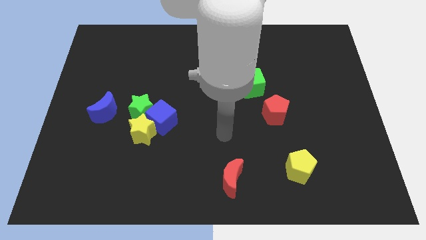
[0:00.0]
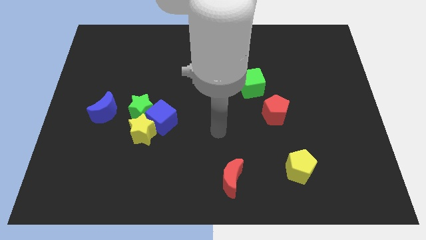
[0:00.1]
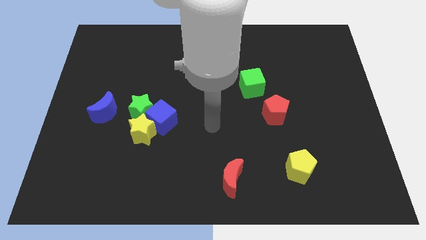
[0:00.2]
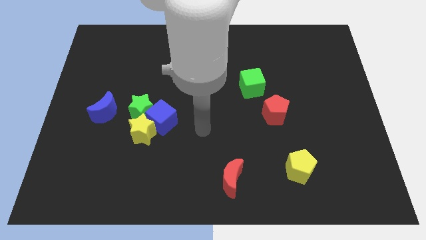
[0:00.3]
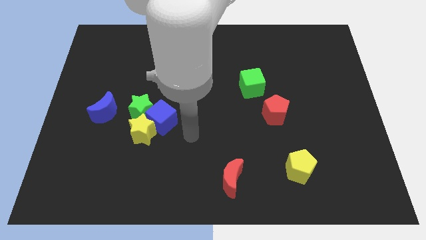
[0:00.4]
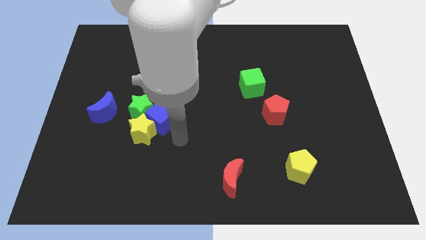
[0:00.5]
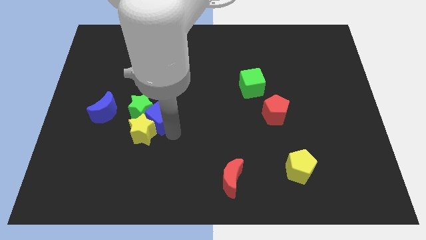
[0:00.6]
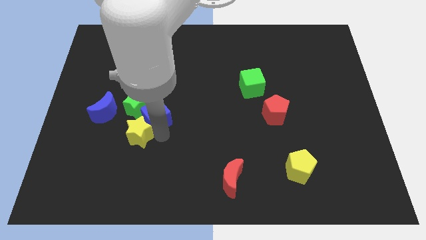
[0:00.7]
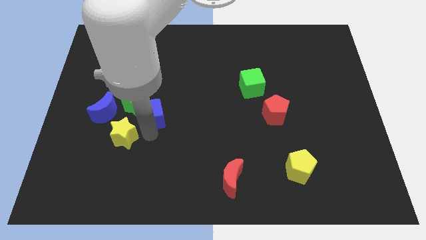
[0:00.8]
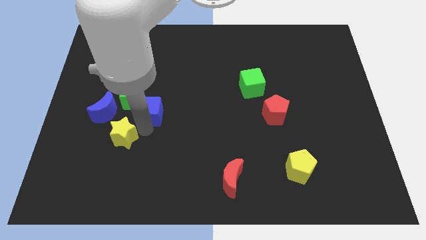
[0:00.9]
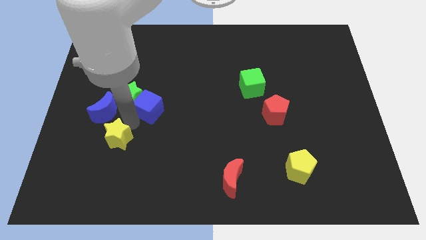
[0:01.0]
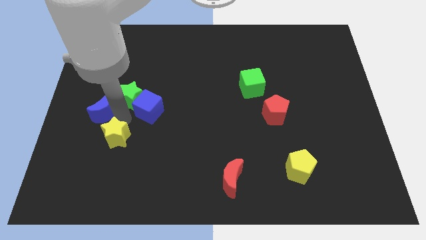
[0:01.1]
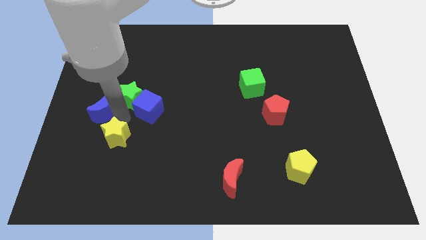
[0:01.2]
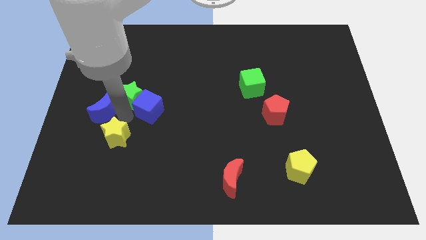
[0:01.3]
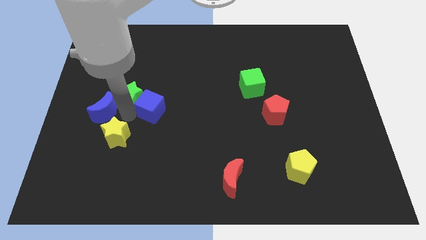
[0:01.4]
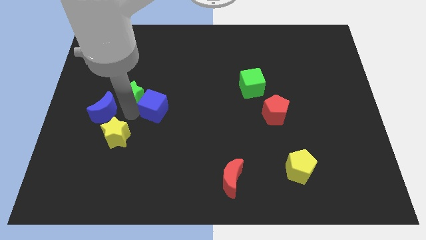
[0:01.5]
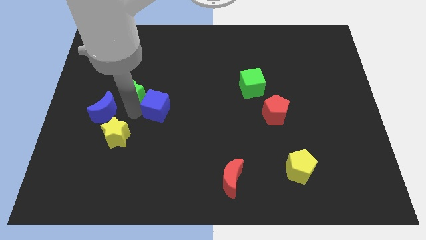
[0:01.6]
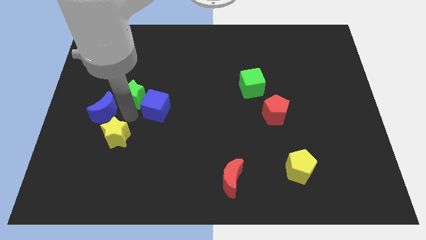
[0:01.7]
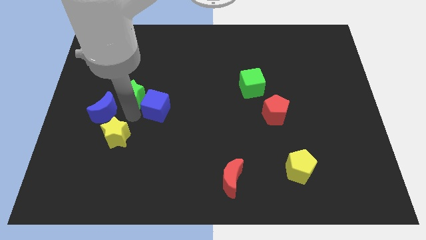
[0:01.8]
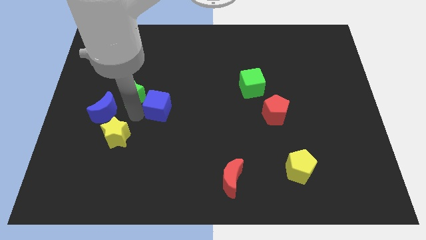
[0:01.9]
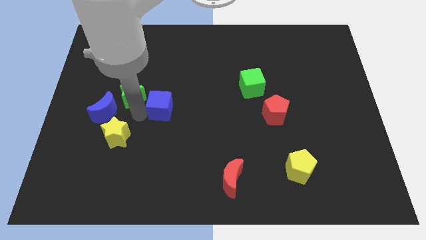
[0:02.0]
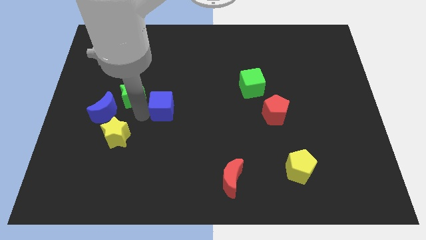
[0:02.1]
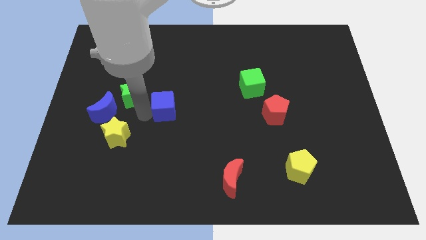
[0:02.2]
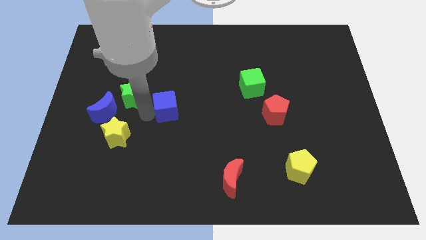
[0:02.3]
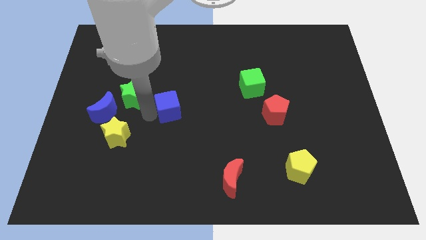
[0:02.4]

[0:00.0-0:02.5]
pull the blue cube apart from the yellow star and green star

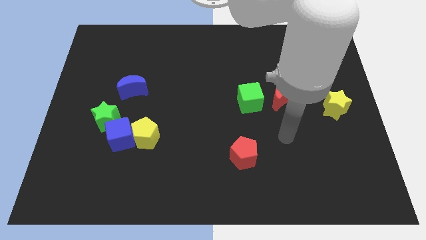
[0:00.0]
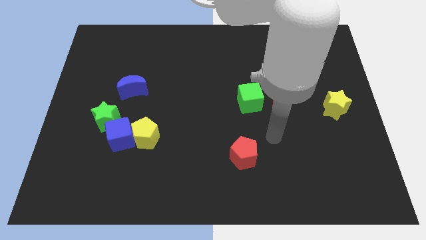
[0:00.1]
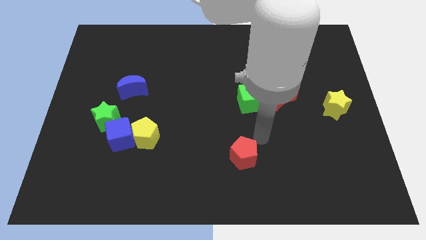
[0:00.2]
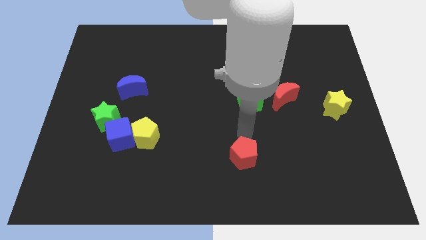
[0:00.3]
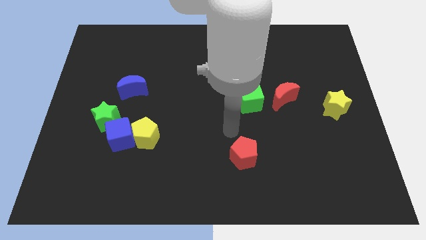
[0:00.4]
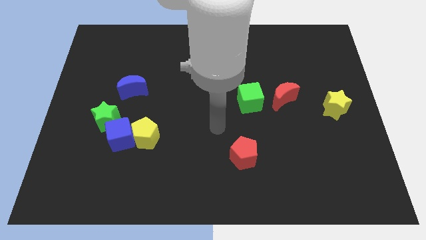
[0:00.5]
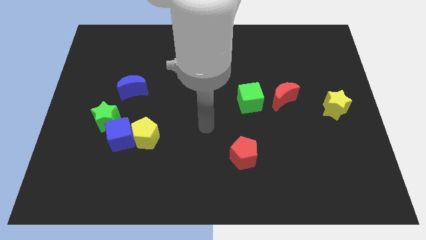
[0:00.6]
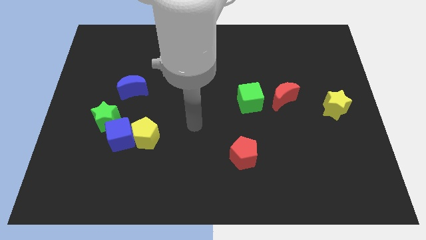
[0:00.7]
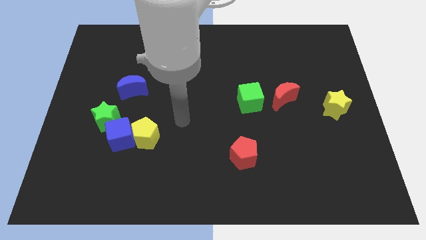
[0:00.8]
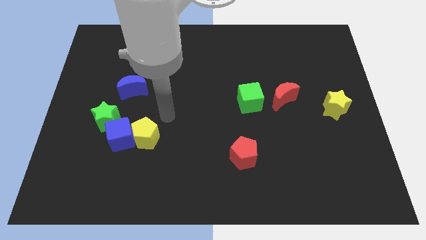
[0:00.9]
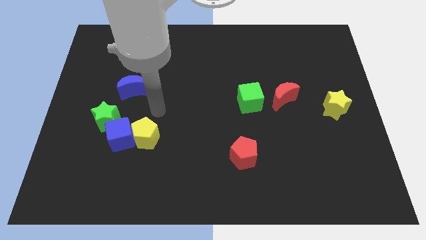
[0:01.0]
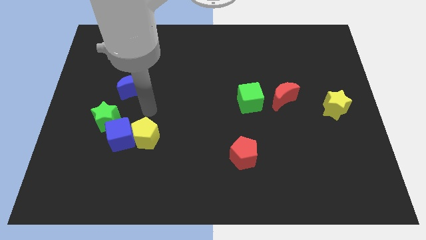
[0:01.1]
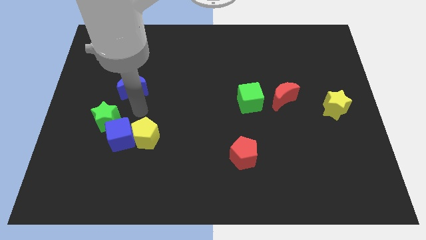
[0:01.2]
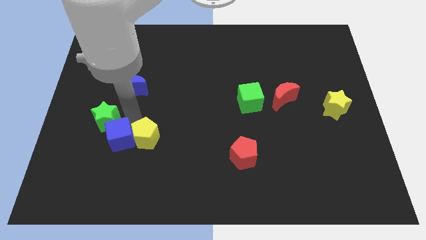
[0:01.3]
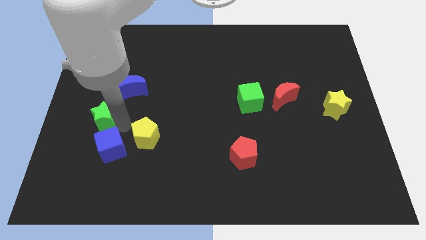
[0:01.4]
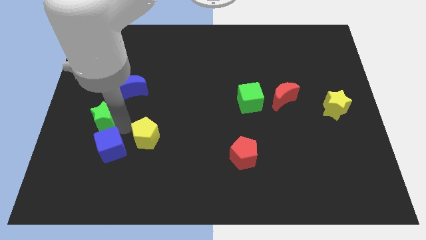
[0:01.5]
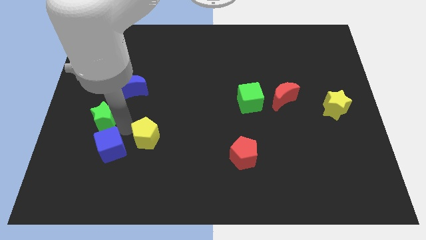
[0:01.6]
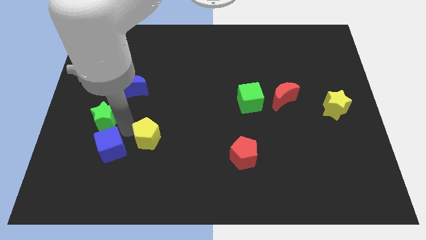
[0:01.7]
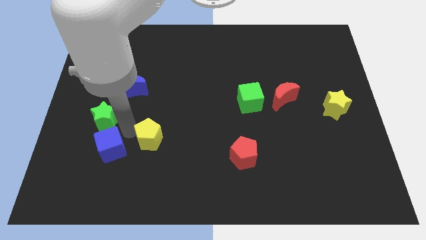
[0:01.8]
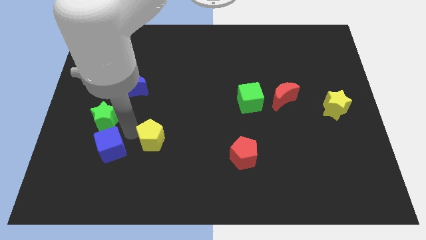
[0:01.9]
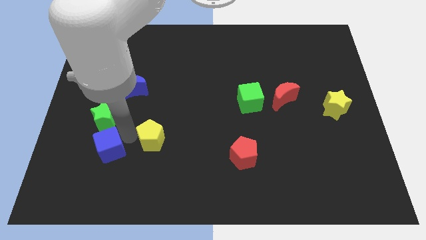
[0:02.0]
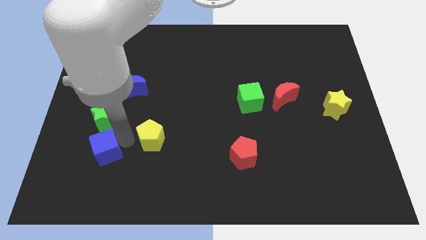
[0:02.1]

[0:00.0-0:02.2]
move the yellow pentagon away from the blue cube

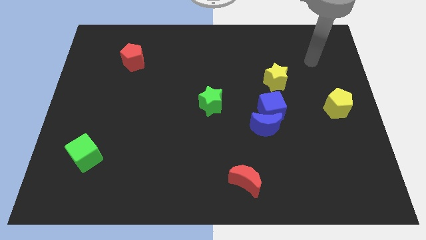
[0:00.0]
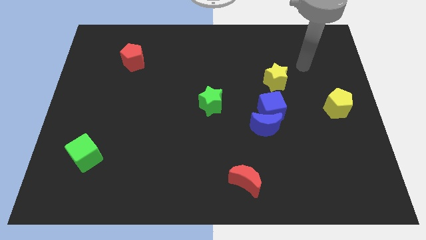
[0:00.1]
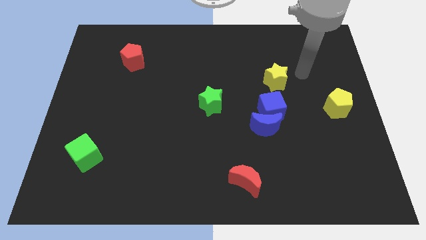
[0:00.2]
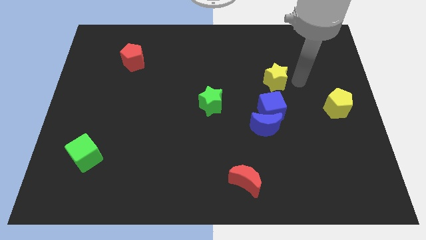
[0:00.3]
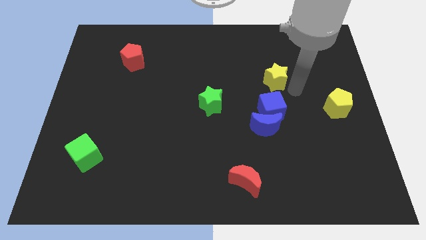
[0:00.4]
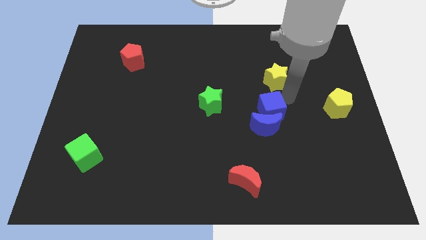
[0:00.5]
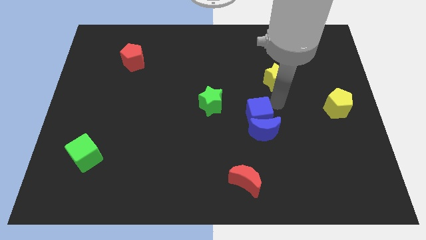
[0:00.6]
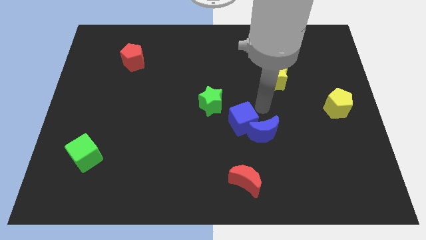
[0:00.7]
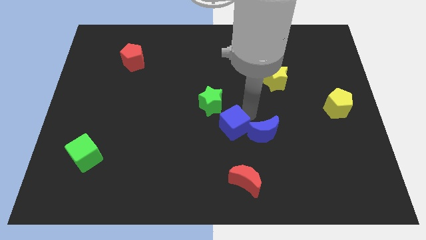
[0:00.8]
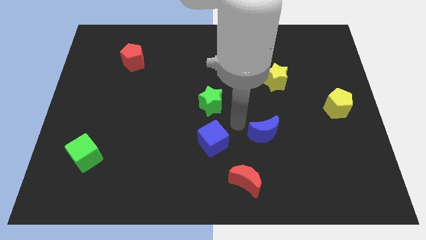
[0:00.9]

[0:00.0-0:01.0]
pull the blue moon apart from the blue cube

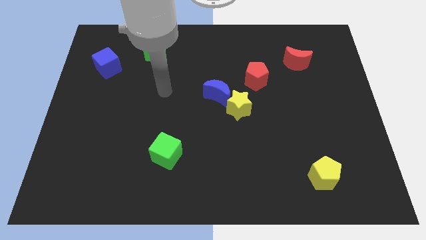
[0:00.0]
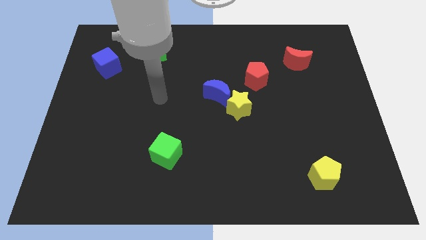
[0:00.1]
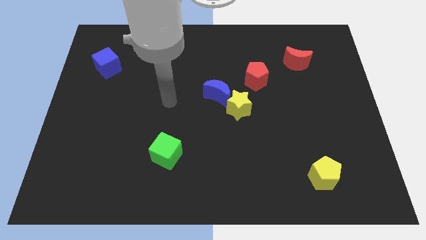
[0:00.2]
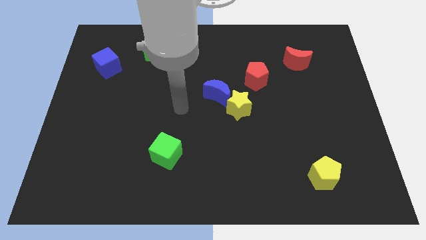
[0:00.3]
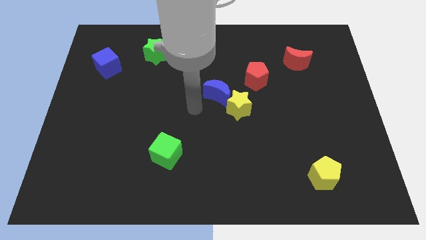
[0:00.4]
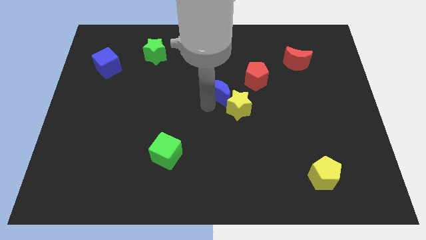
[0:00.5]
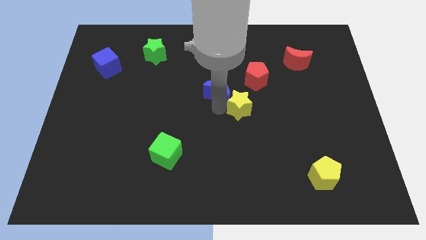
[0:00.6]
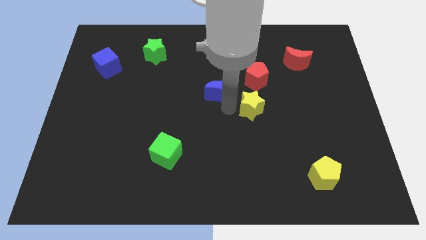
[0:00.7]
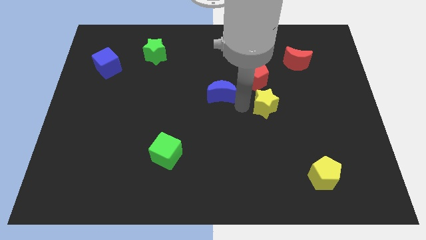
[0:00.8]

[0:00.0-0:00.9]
move the blue moon away from the yellow star

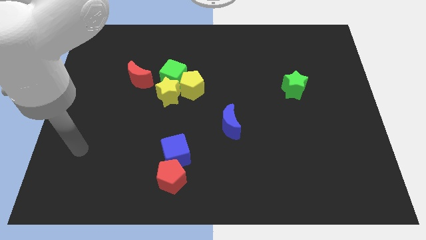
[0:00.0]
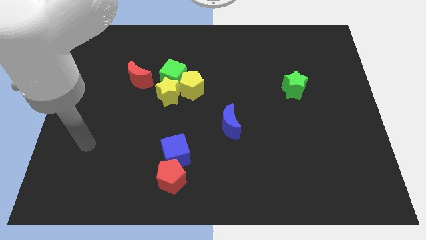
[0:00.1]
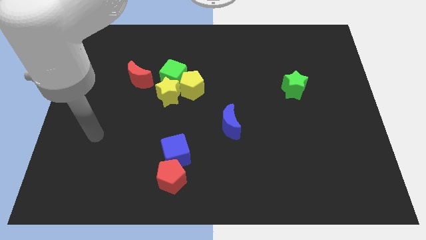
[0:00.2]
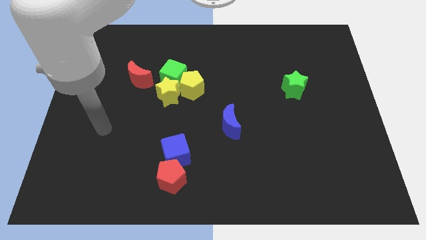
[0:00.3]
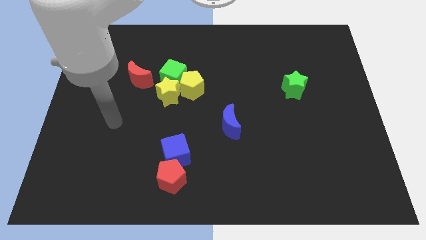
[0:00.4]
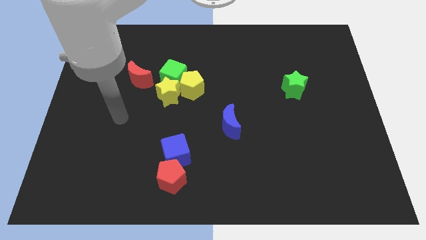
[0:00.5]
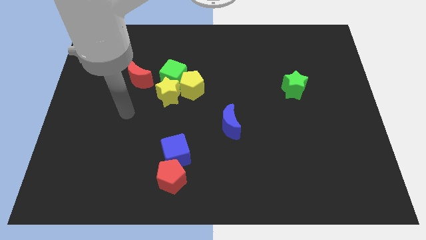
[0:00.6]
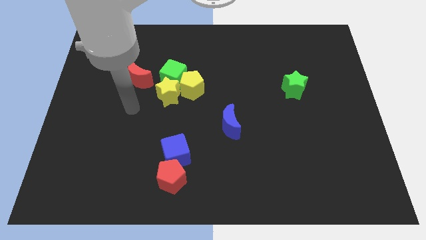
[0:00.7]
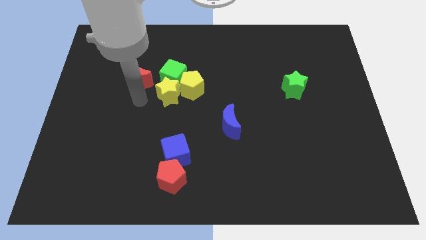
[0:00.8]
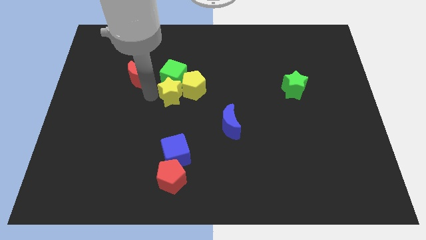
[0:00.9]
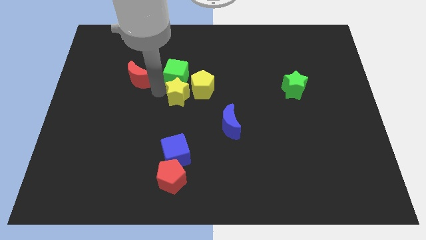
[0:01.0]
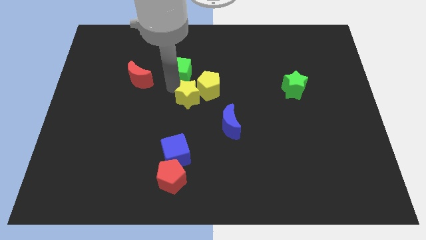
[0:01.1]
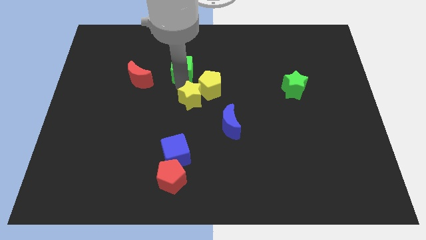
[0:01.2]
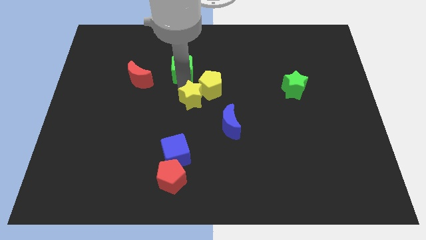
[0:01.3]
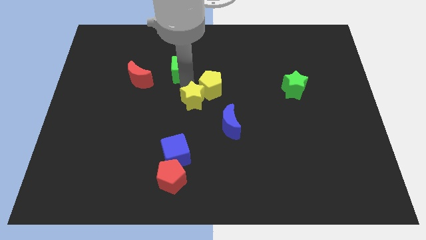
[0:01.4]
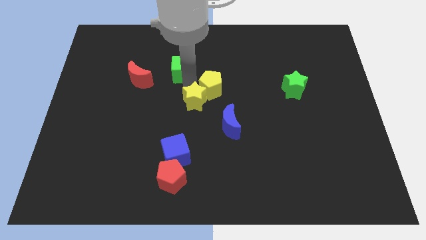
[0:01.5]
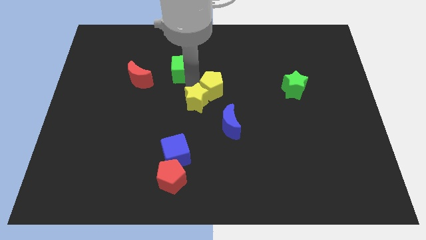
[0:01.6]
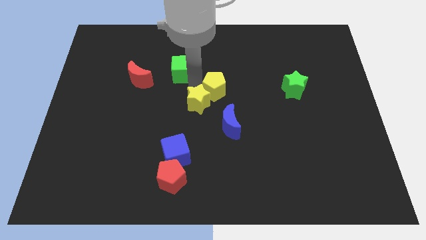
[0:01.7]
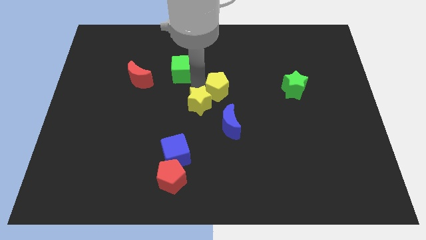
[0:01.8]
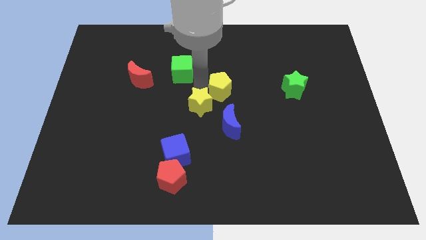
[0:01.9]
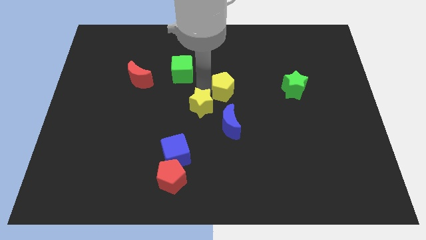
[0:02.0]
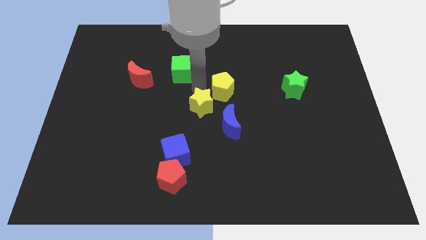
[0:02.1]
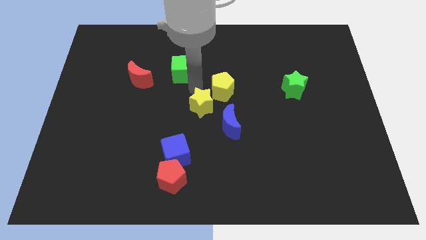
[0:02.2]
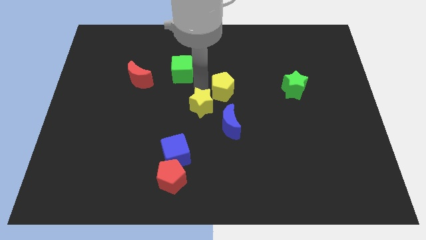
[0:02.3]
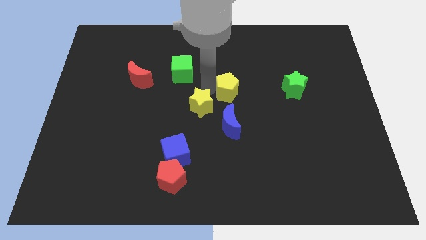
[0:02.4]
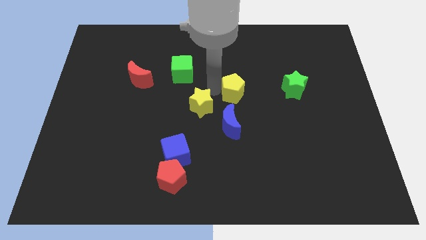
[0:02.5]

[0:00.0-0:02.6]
pull the yellow pentagon apart from the green cube and yellow star
